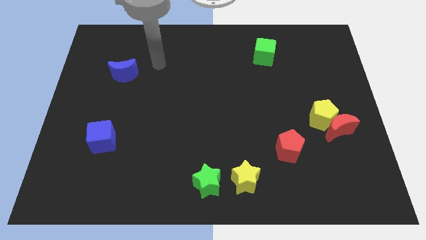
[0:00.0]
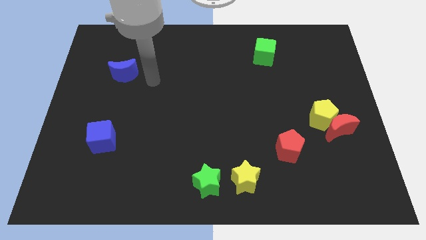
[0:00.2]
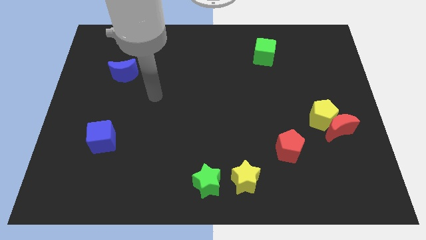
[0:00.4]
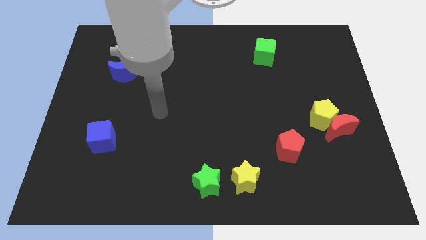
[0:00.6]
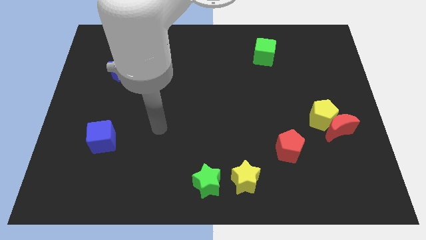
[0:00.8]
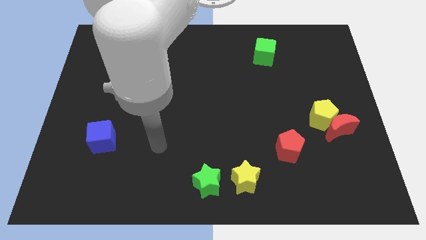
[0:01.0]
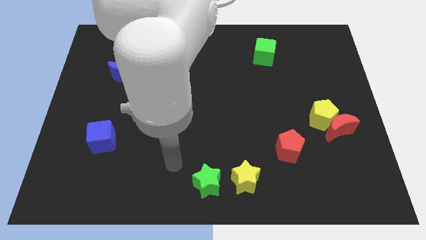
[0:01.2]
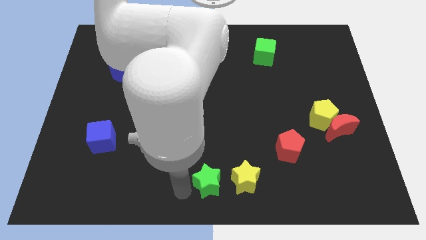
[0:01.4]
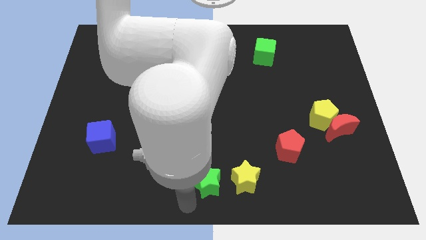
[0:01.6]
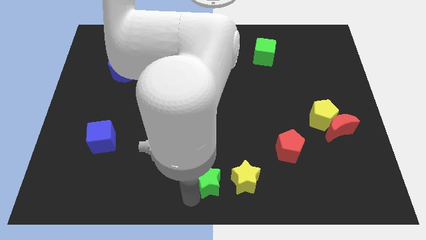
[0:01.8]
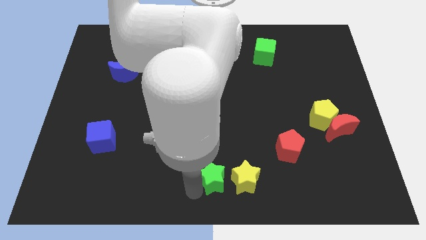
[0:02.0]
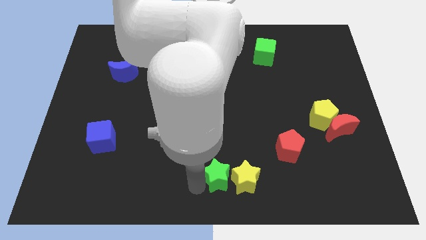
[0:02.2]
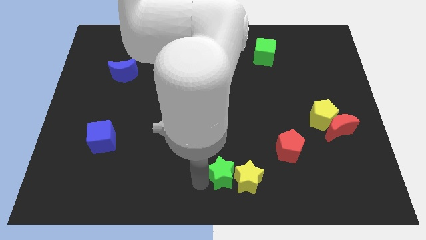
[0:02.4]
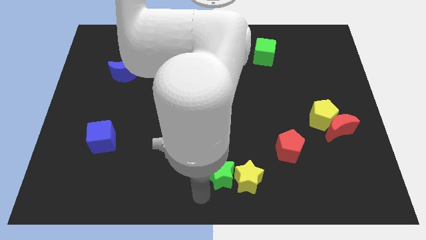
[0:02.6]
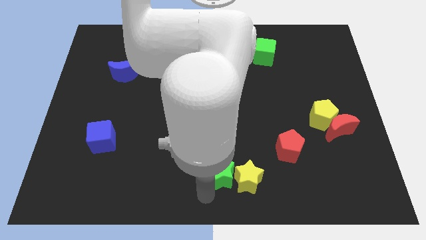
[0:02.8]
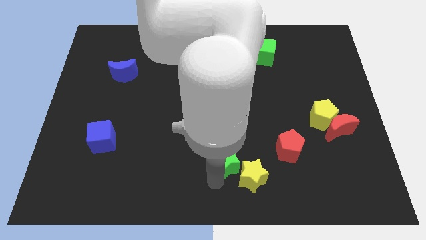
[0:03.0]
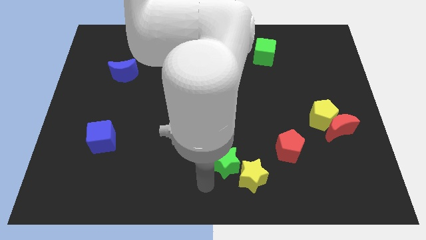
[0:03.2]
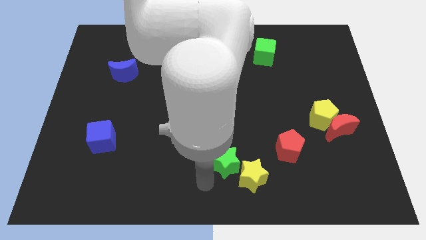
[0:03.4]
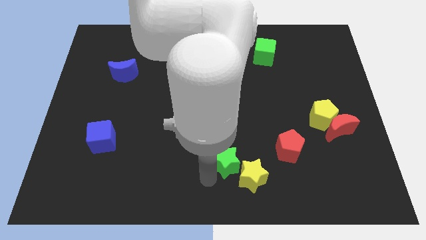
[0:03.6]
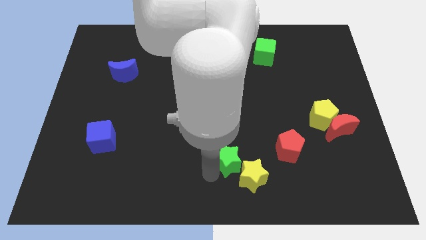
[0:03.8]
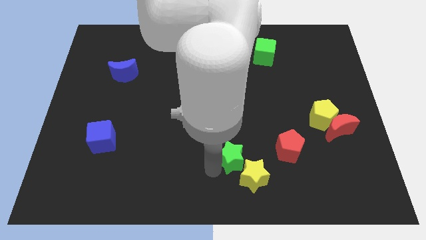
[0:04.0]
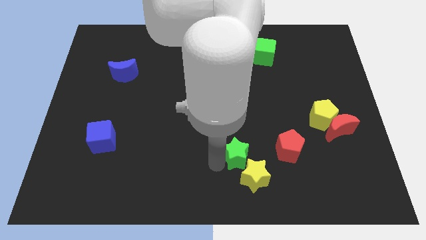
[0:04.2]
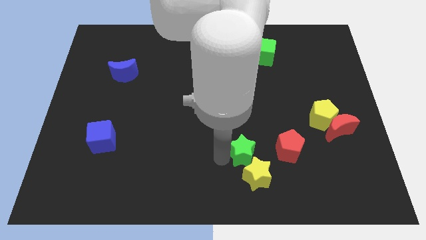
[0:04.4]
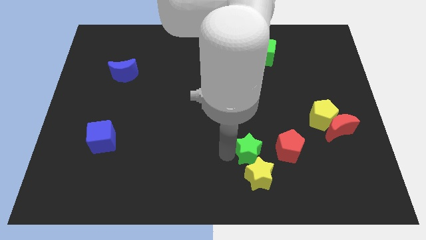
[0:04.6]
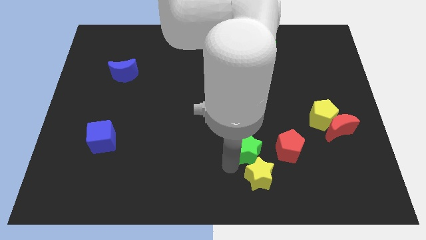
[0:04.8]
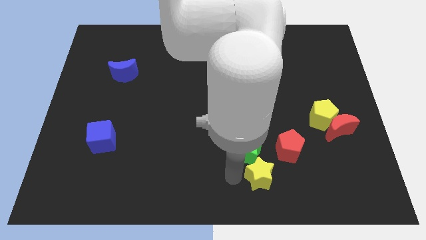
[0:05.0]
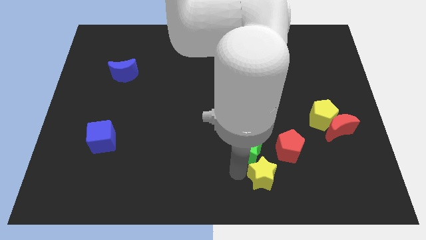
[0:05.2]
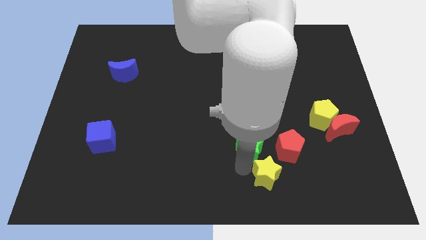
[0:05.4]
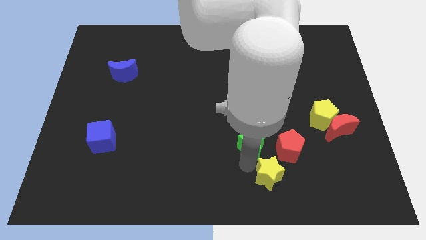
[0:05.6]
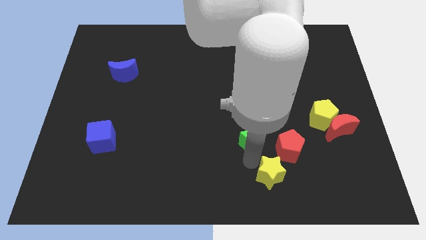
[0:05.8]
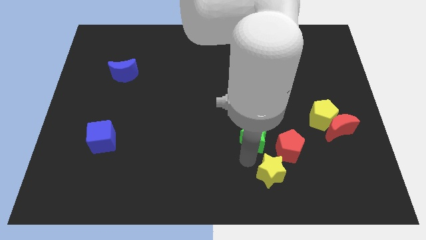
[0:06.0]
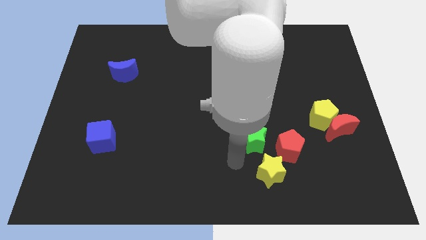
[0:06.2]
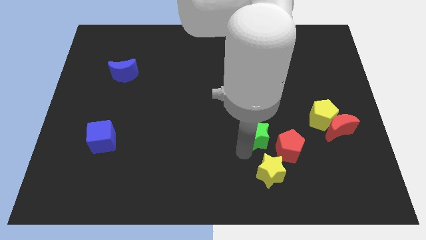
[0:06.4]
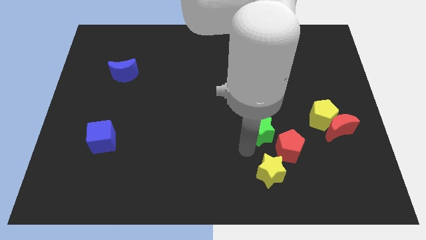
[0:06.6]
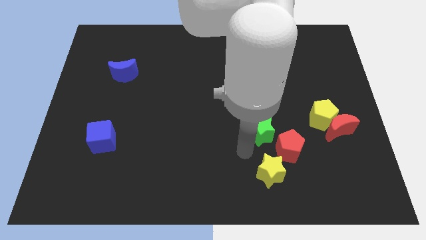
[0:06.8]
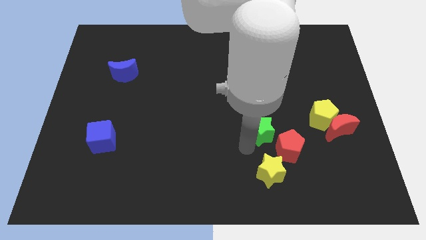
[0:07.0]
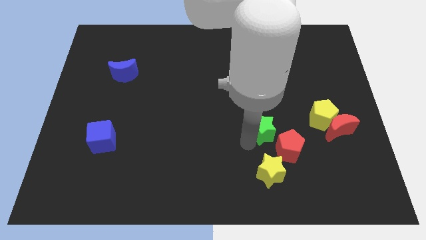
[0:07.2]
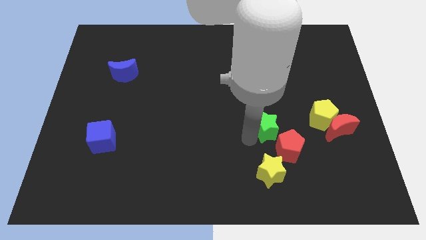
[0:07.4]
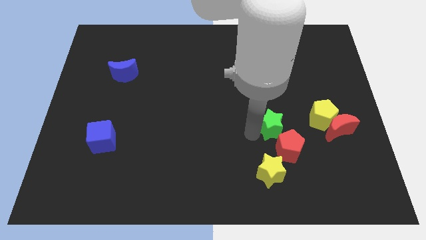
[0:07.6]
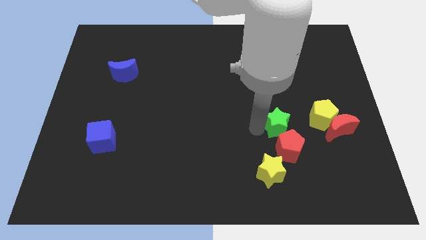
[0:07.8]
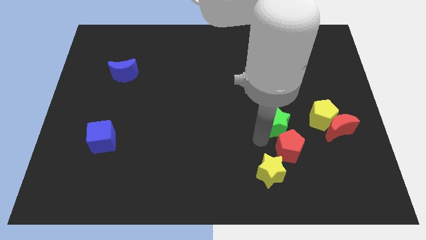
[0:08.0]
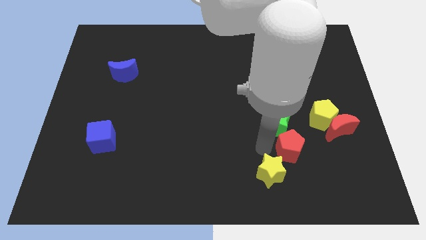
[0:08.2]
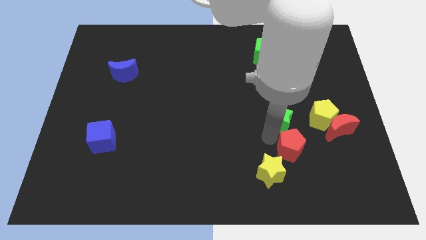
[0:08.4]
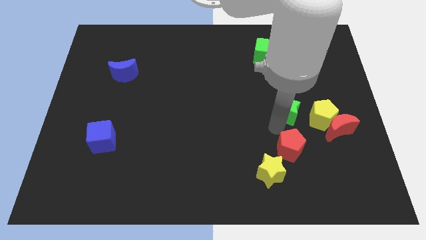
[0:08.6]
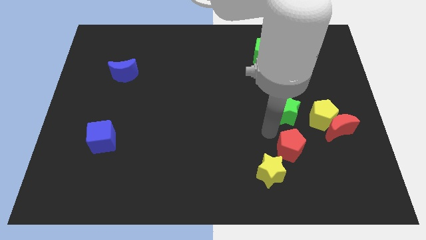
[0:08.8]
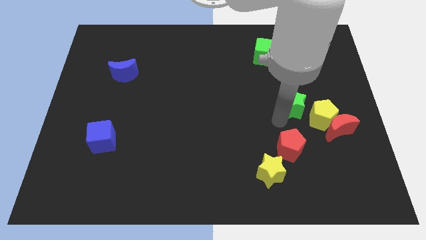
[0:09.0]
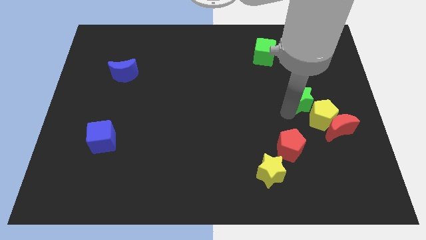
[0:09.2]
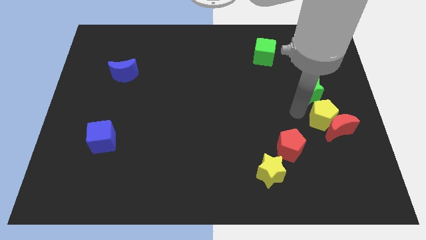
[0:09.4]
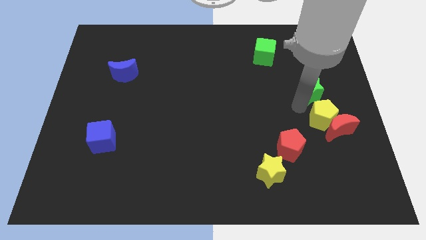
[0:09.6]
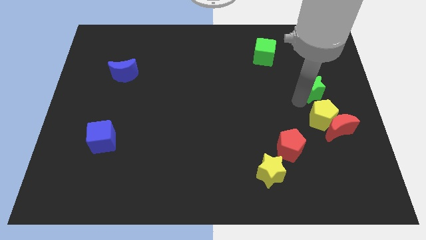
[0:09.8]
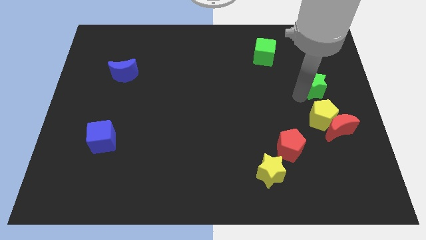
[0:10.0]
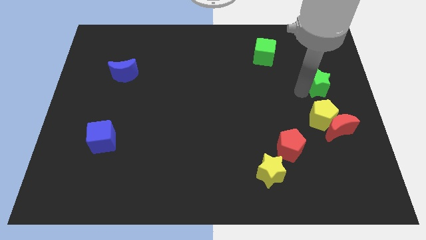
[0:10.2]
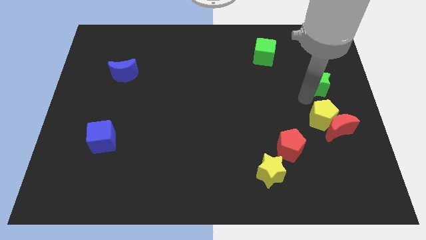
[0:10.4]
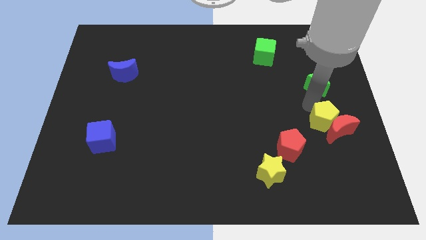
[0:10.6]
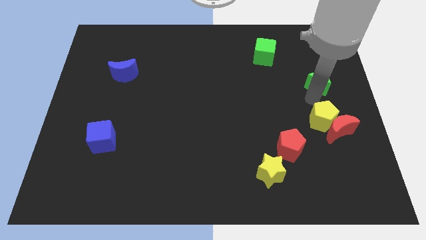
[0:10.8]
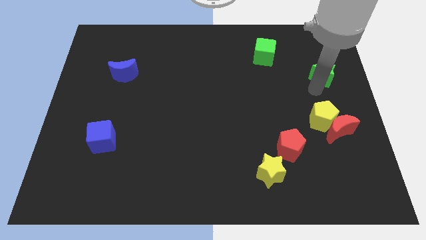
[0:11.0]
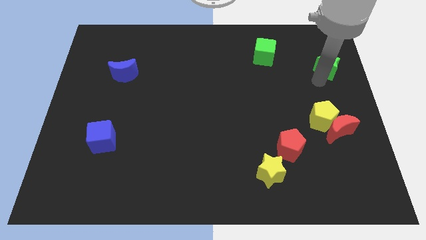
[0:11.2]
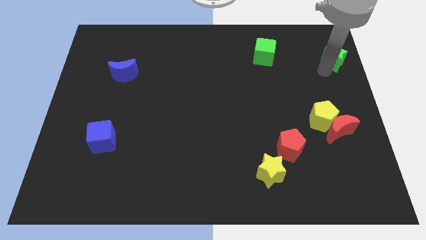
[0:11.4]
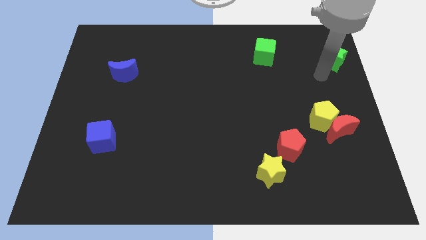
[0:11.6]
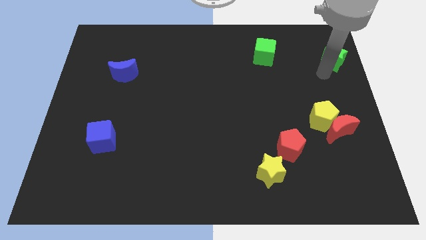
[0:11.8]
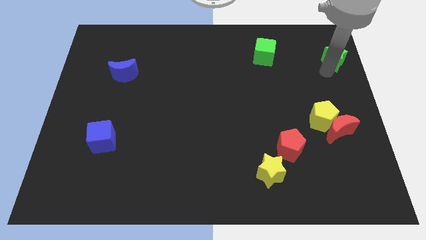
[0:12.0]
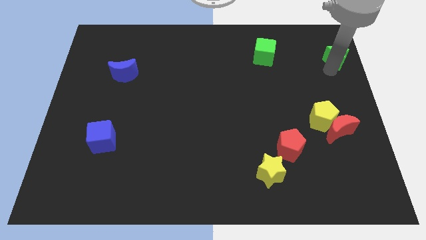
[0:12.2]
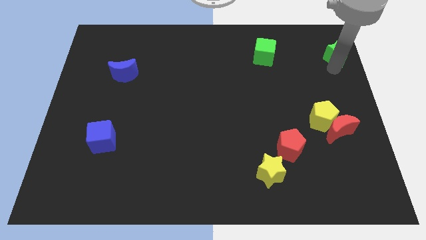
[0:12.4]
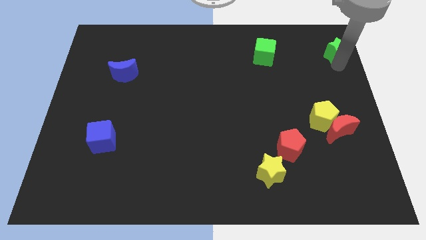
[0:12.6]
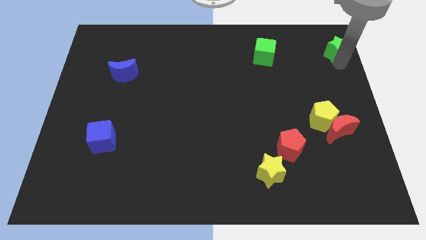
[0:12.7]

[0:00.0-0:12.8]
put the green star to the top right of the board
